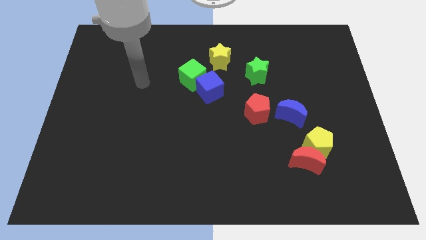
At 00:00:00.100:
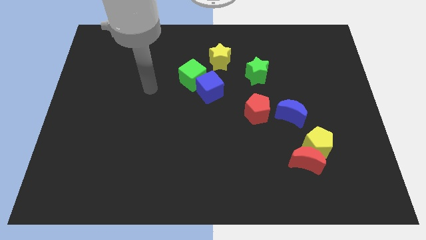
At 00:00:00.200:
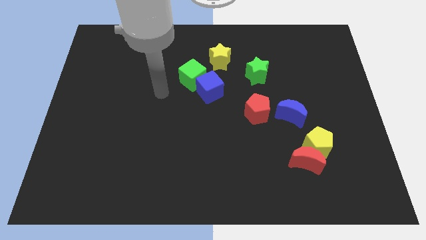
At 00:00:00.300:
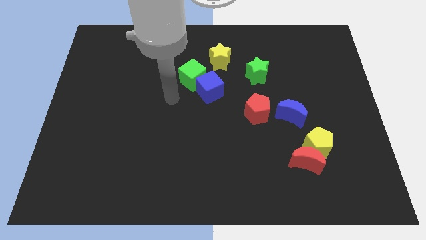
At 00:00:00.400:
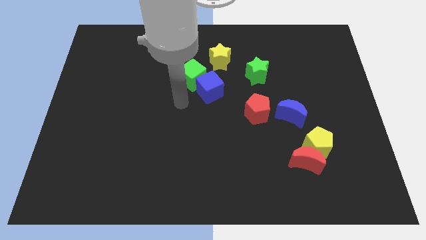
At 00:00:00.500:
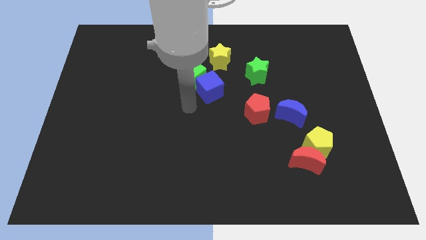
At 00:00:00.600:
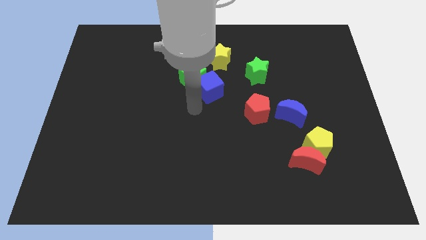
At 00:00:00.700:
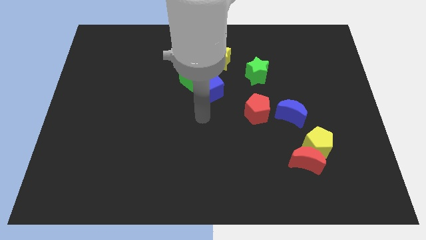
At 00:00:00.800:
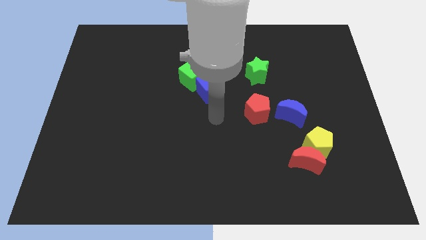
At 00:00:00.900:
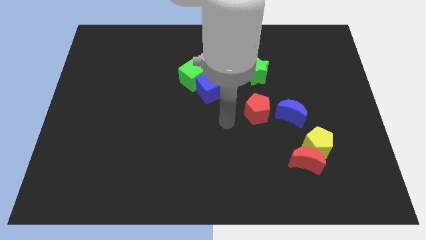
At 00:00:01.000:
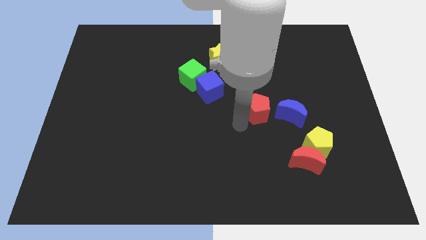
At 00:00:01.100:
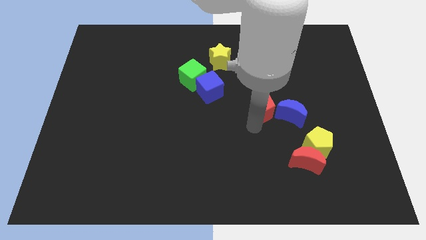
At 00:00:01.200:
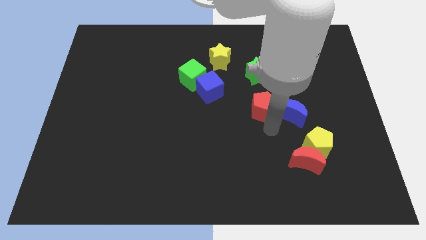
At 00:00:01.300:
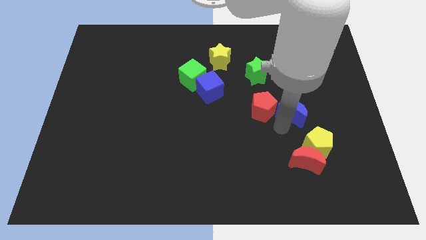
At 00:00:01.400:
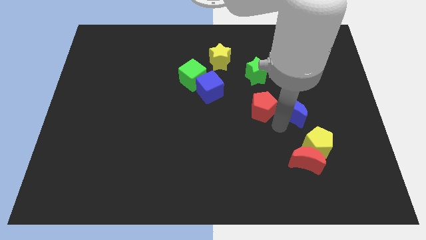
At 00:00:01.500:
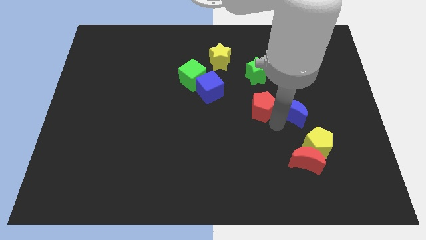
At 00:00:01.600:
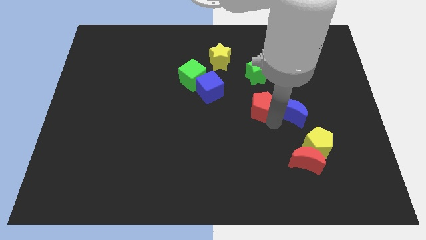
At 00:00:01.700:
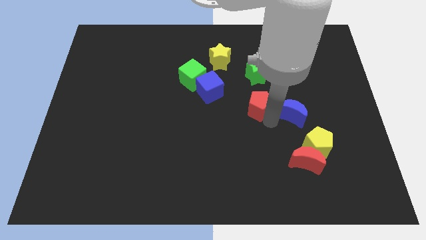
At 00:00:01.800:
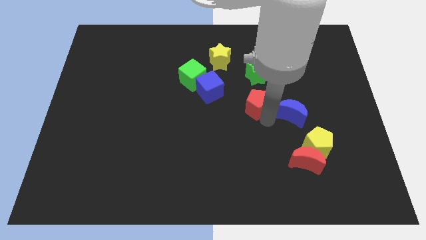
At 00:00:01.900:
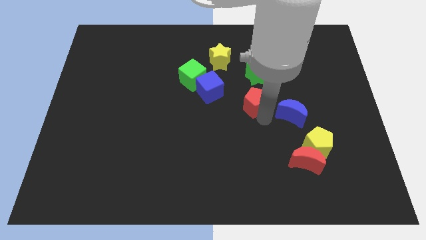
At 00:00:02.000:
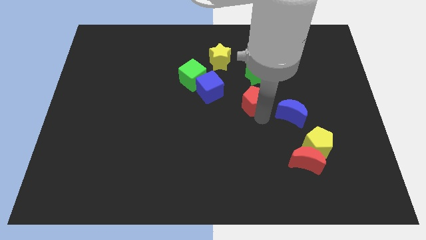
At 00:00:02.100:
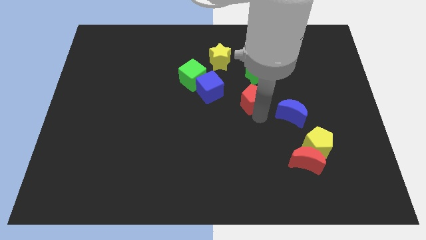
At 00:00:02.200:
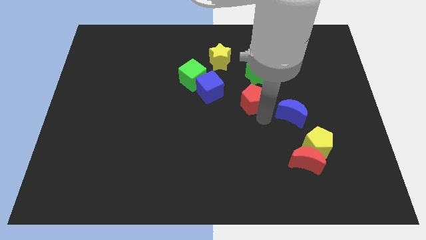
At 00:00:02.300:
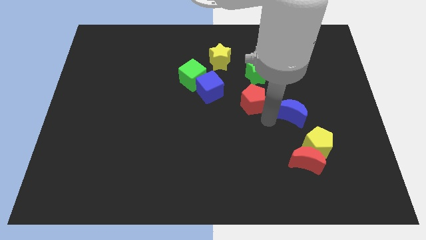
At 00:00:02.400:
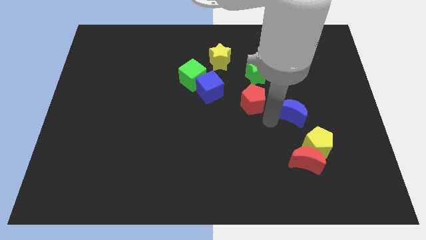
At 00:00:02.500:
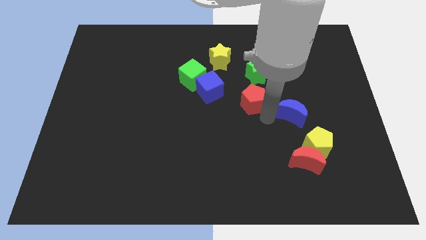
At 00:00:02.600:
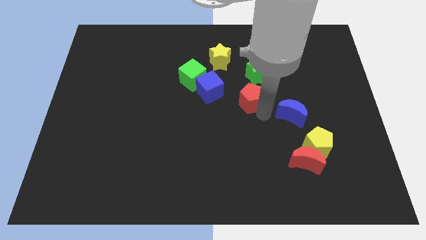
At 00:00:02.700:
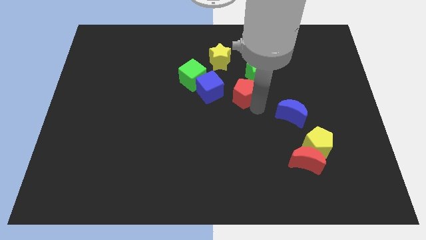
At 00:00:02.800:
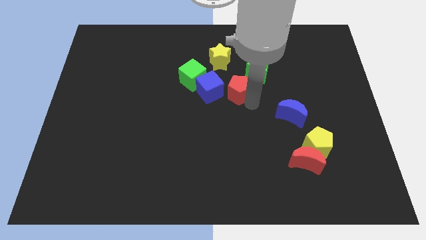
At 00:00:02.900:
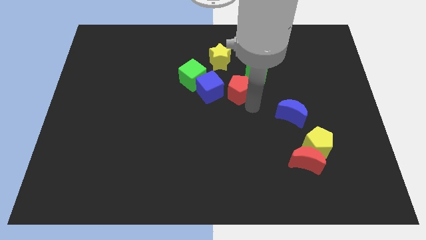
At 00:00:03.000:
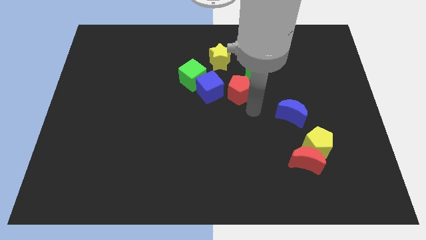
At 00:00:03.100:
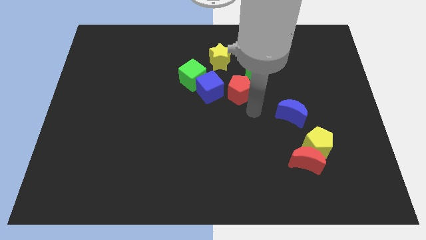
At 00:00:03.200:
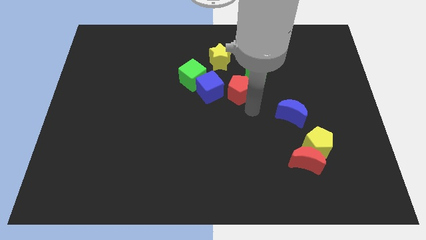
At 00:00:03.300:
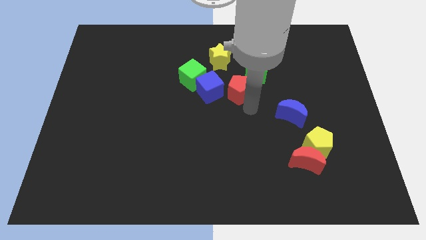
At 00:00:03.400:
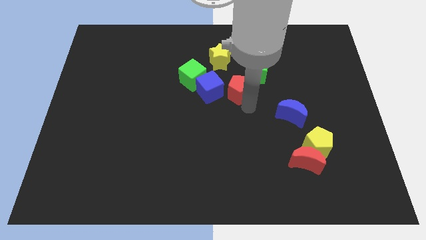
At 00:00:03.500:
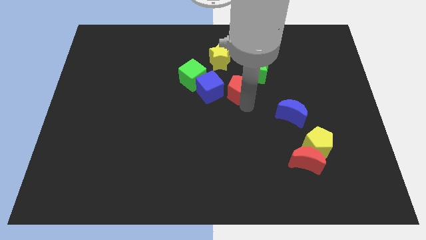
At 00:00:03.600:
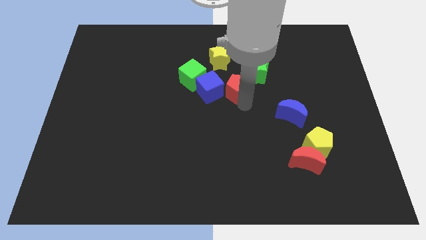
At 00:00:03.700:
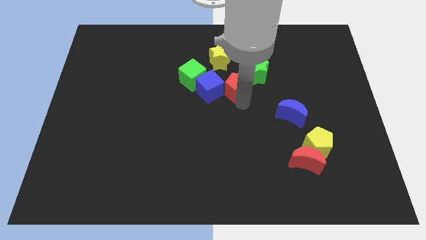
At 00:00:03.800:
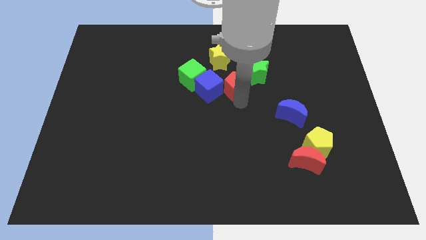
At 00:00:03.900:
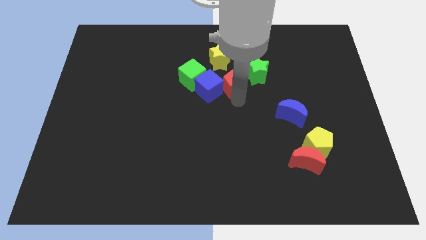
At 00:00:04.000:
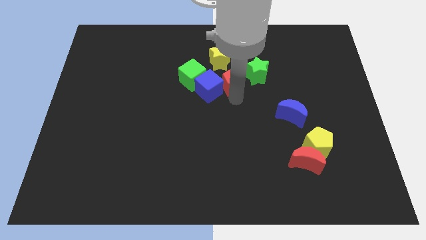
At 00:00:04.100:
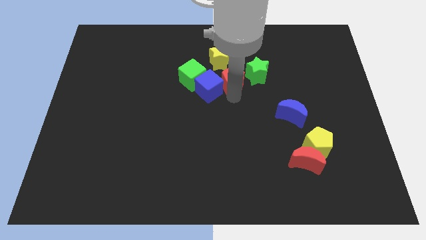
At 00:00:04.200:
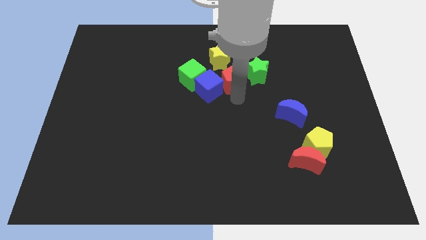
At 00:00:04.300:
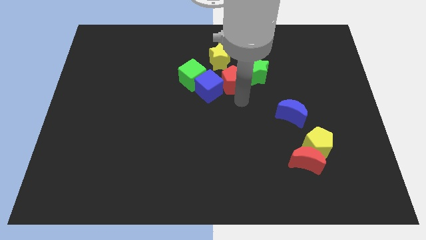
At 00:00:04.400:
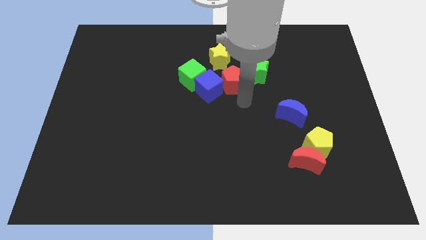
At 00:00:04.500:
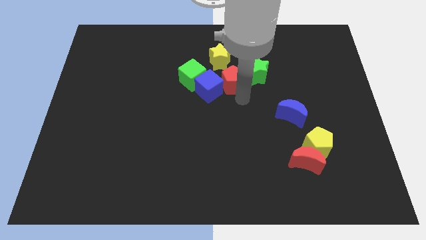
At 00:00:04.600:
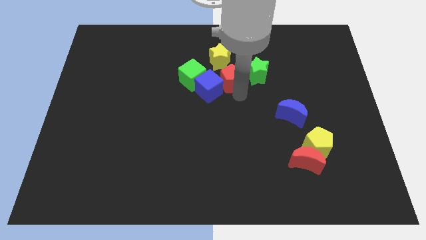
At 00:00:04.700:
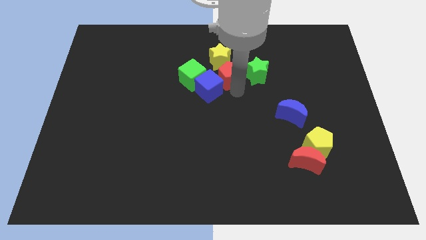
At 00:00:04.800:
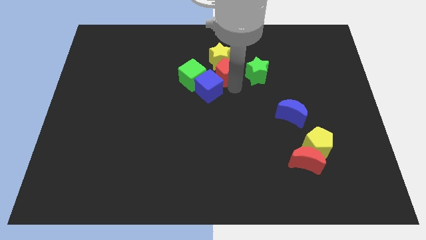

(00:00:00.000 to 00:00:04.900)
put the red pentagon to the yellow star

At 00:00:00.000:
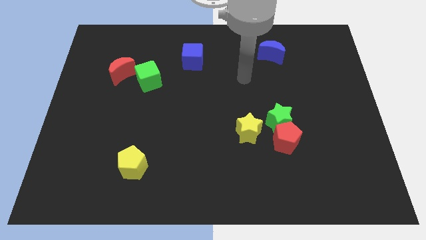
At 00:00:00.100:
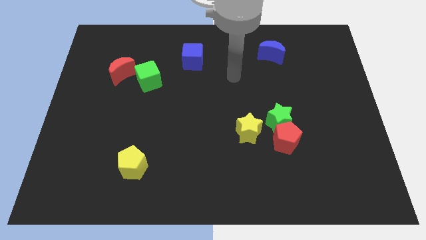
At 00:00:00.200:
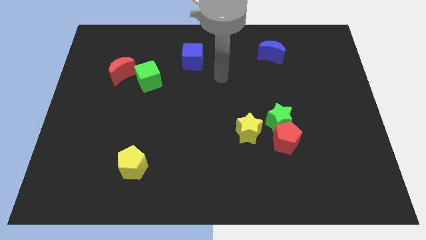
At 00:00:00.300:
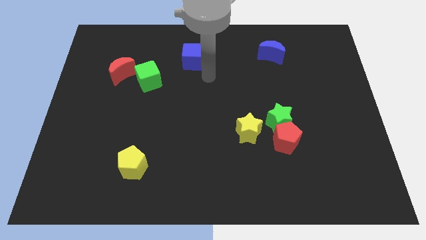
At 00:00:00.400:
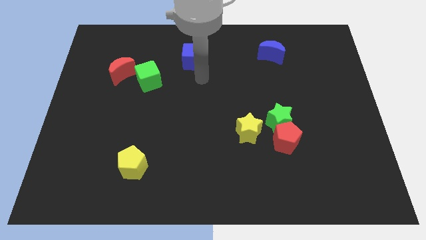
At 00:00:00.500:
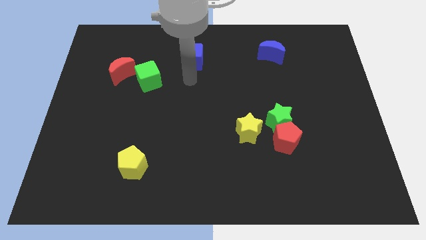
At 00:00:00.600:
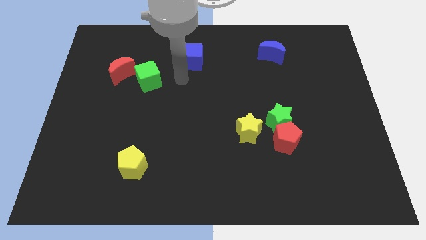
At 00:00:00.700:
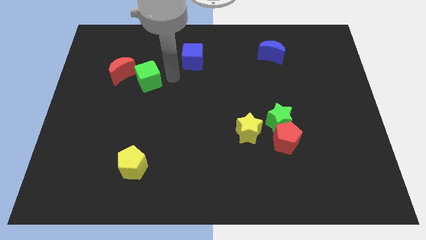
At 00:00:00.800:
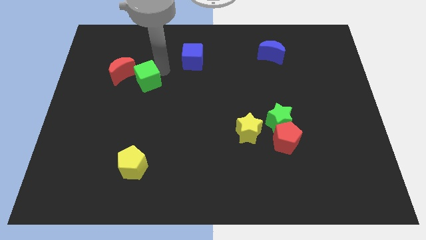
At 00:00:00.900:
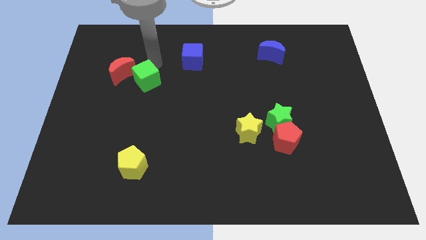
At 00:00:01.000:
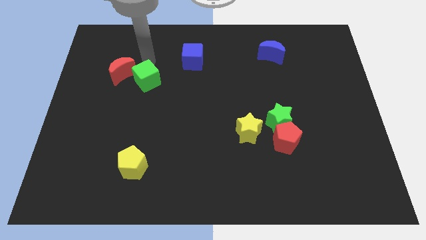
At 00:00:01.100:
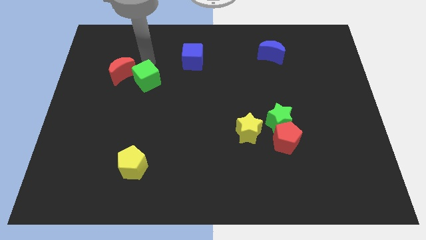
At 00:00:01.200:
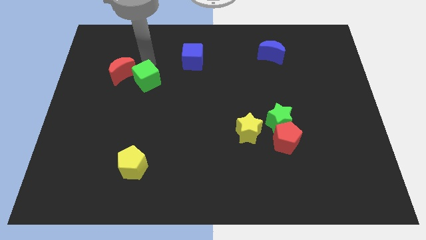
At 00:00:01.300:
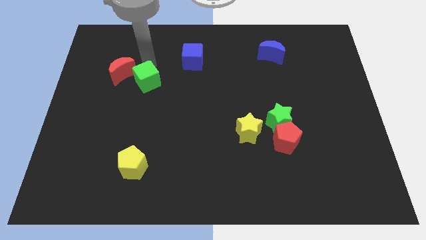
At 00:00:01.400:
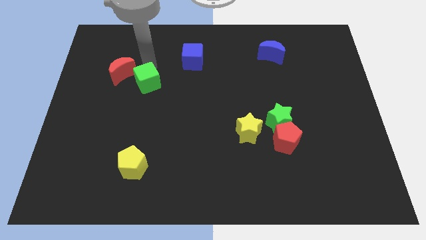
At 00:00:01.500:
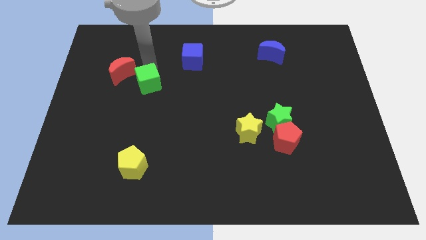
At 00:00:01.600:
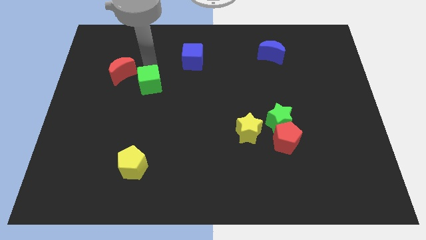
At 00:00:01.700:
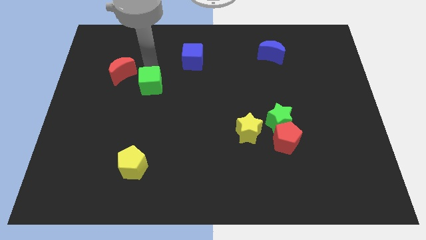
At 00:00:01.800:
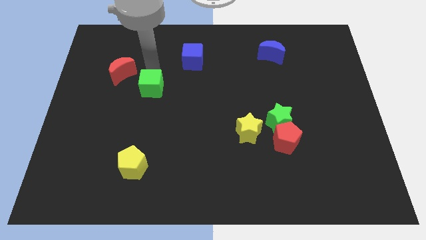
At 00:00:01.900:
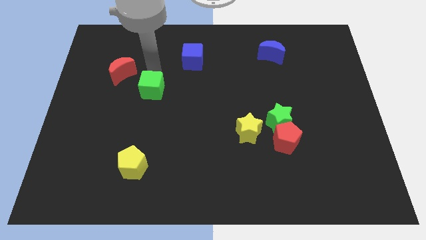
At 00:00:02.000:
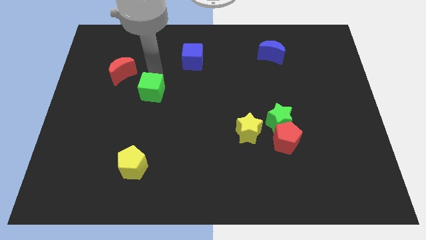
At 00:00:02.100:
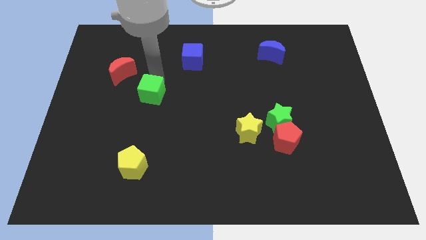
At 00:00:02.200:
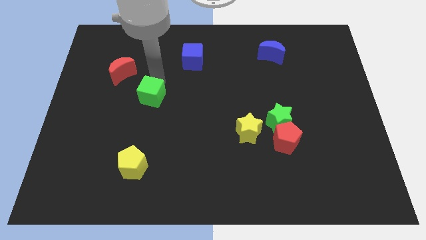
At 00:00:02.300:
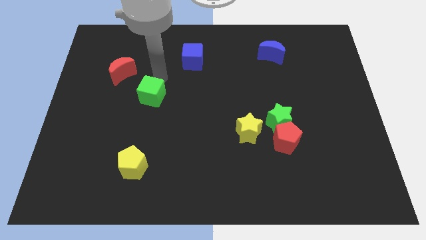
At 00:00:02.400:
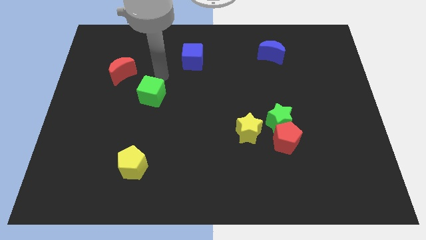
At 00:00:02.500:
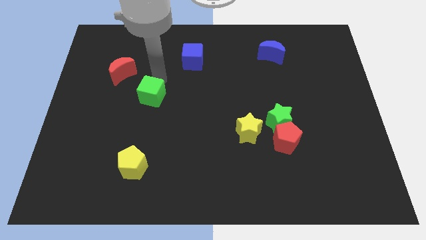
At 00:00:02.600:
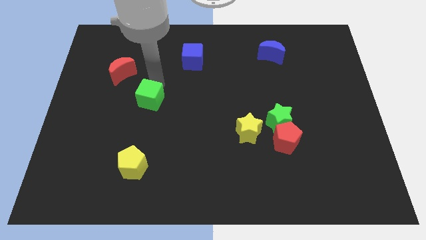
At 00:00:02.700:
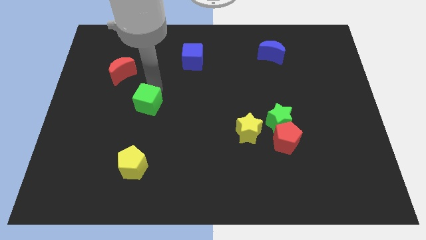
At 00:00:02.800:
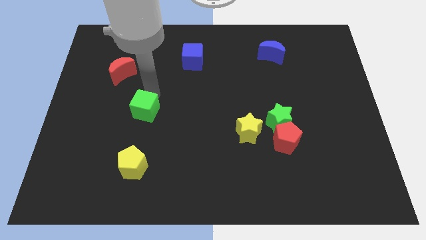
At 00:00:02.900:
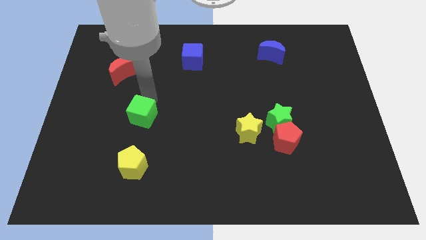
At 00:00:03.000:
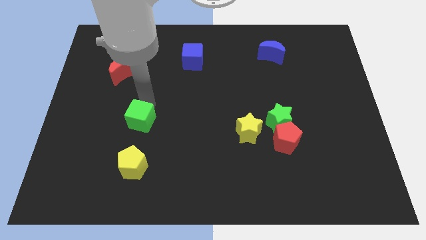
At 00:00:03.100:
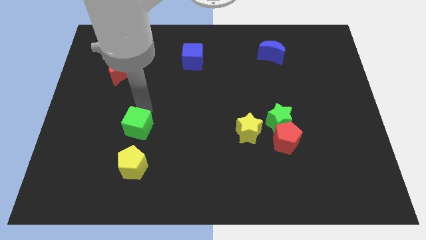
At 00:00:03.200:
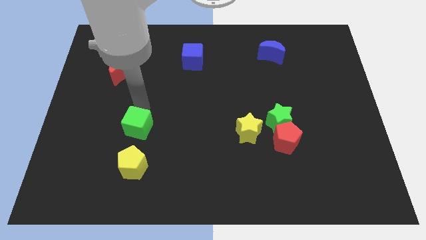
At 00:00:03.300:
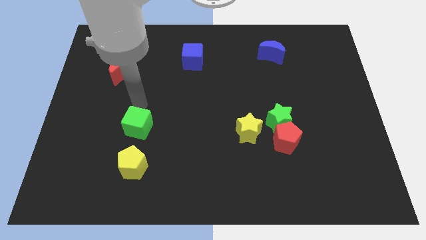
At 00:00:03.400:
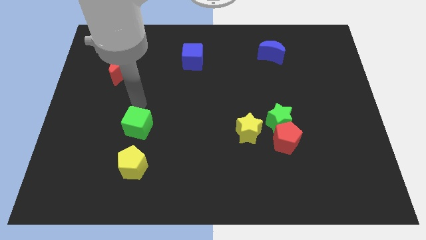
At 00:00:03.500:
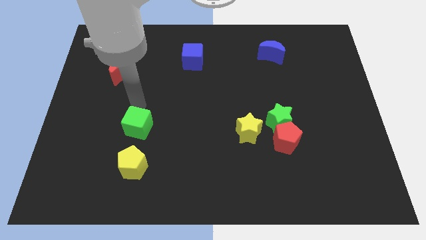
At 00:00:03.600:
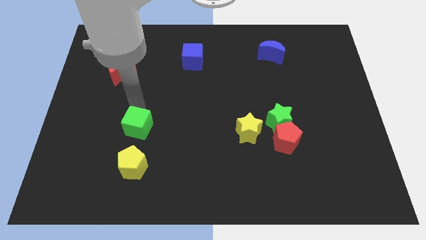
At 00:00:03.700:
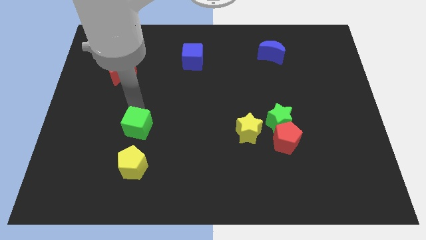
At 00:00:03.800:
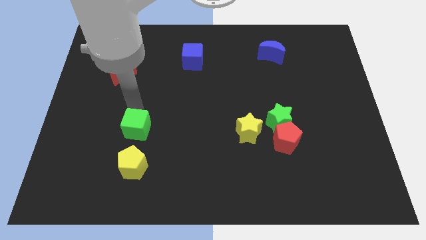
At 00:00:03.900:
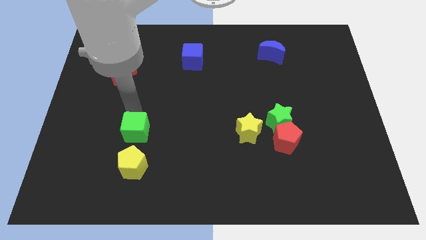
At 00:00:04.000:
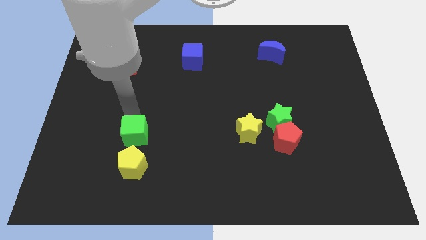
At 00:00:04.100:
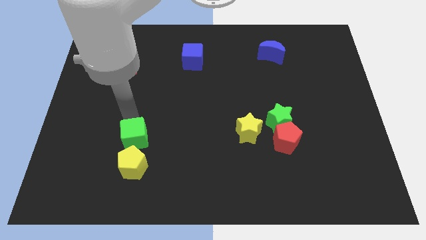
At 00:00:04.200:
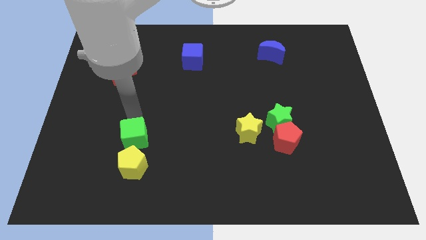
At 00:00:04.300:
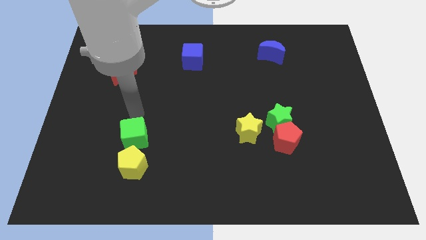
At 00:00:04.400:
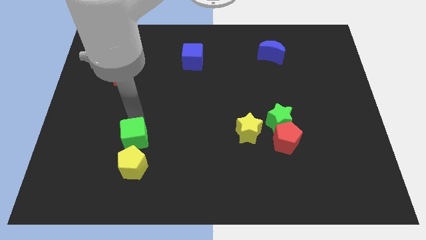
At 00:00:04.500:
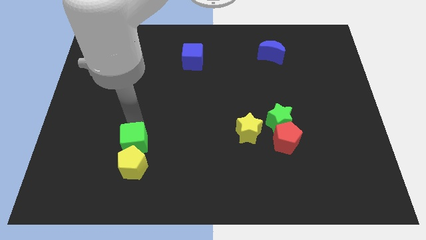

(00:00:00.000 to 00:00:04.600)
put the green cube to the yellow pentagon
